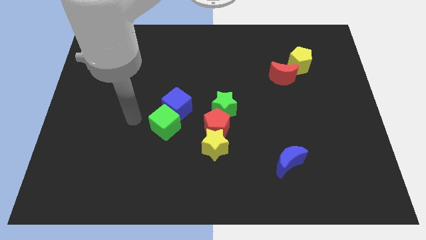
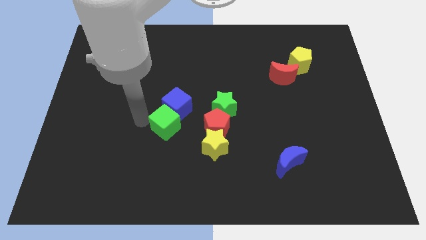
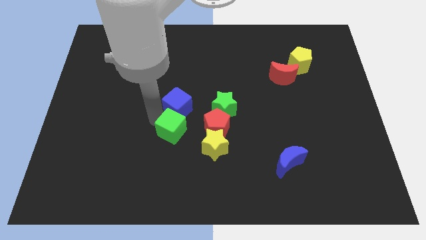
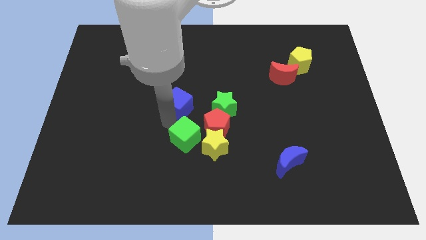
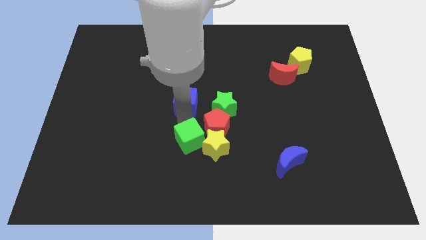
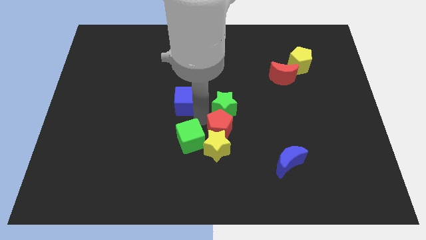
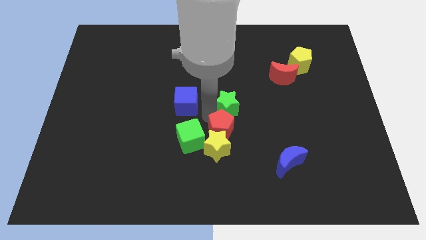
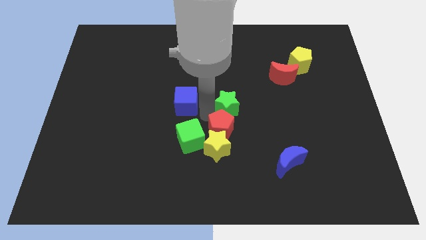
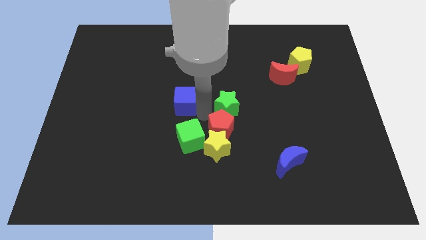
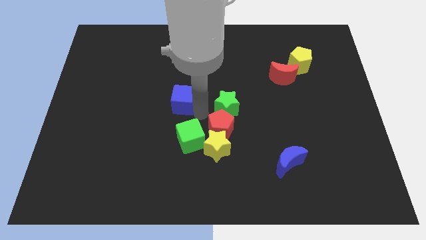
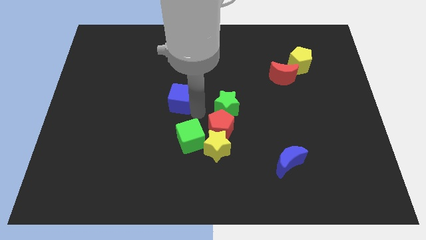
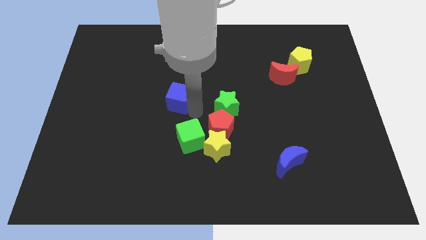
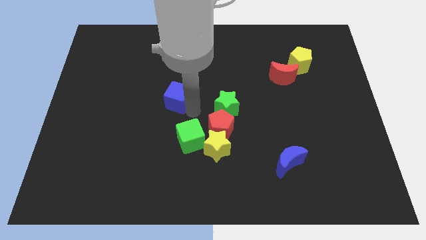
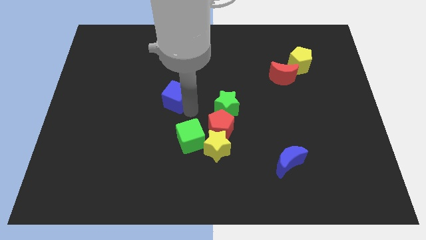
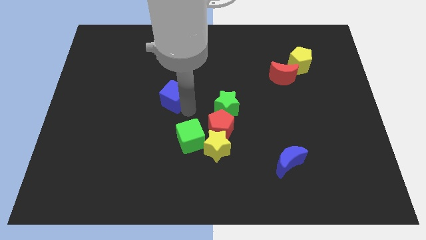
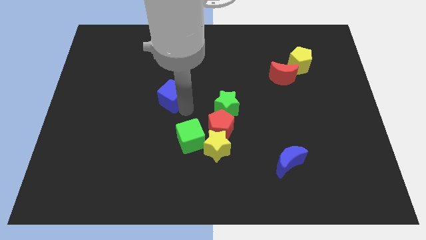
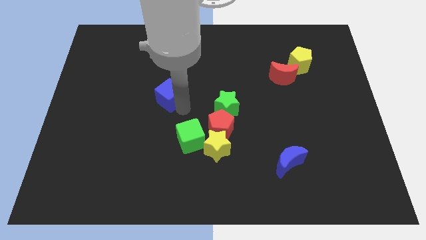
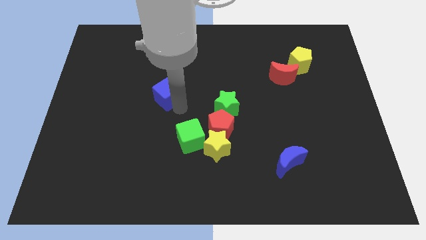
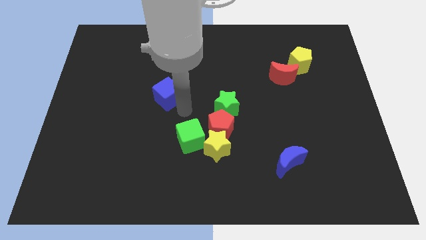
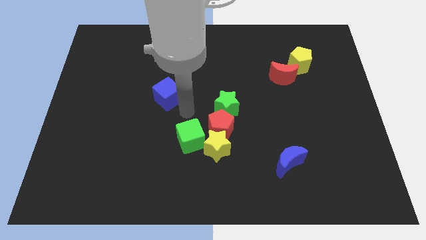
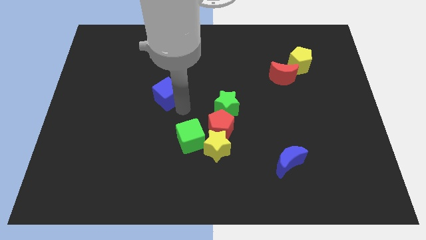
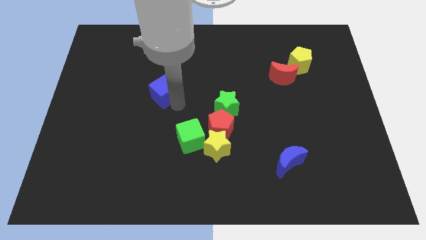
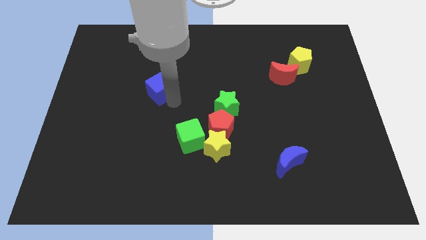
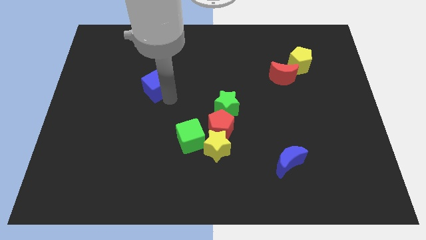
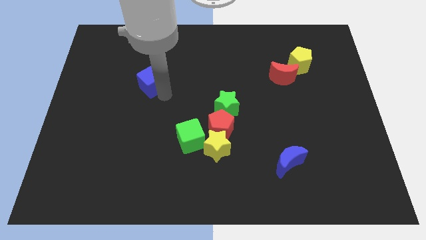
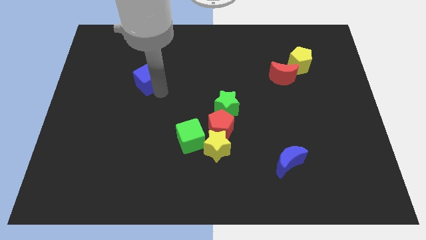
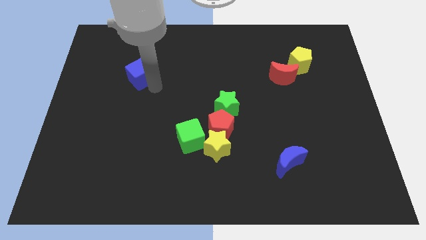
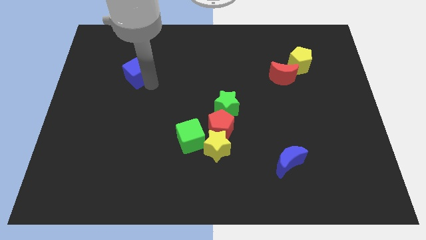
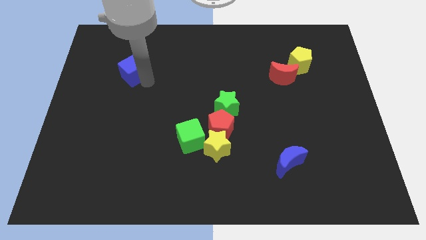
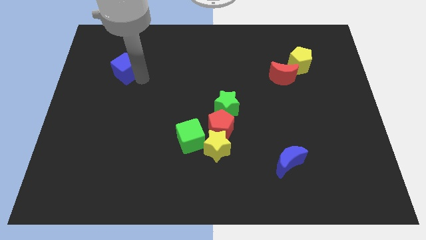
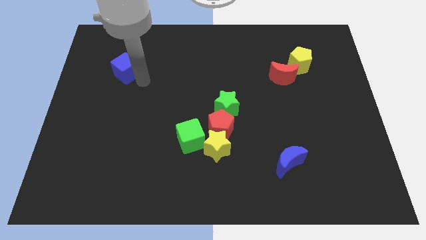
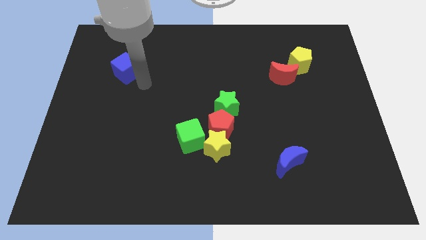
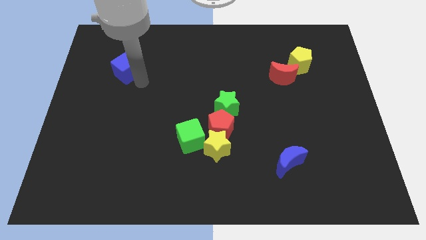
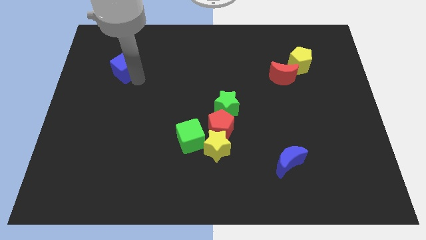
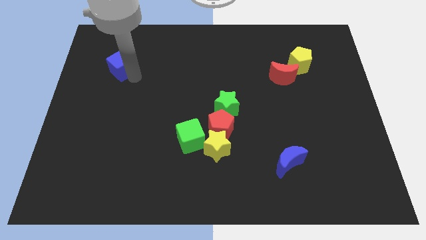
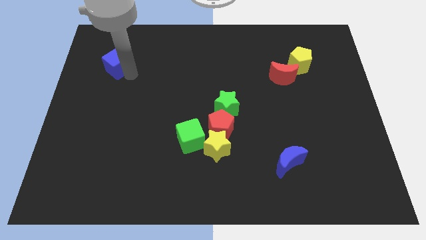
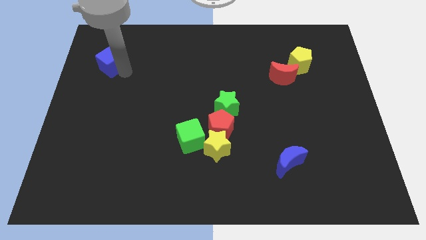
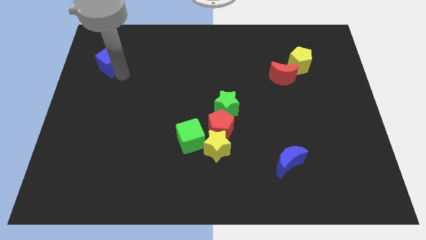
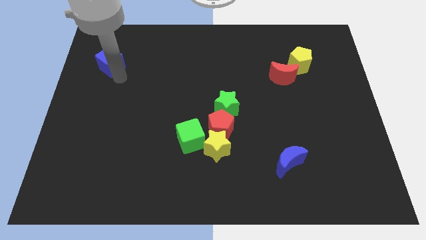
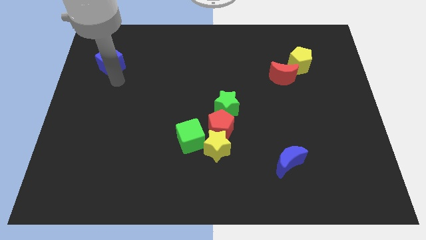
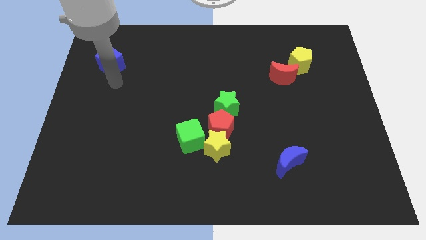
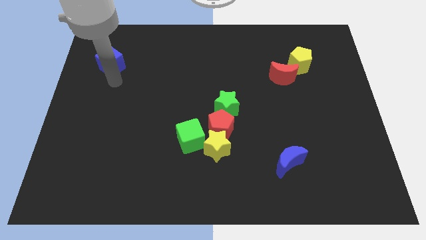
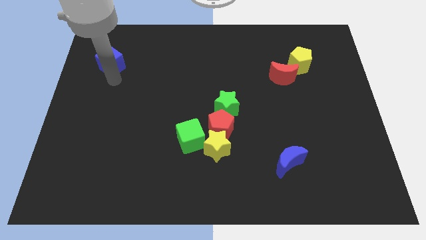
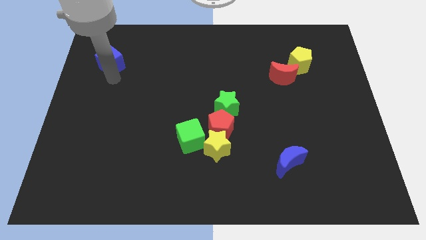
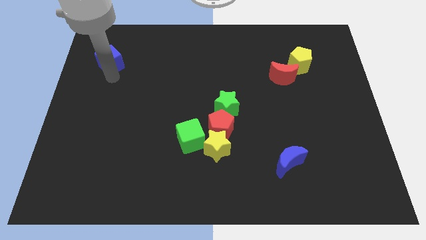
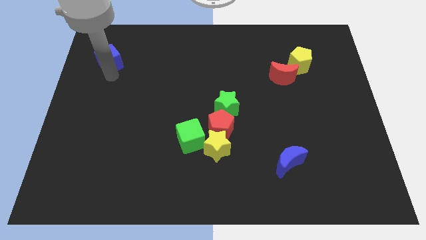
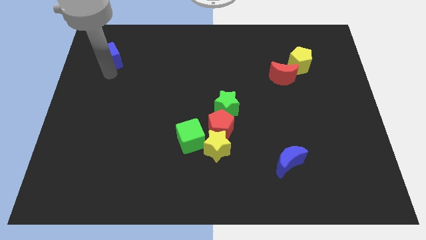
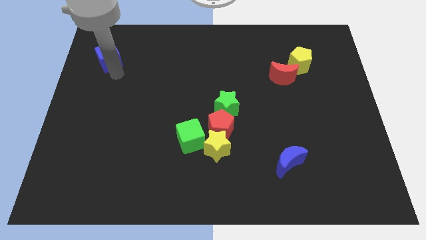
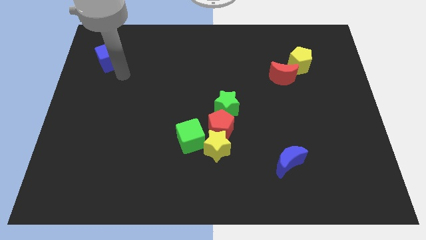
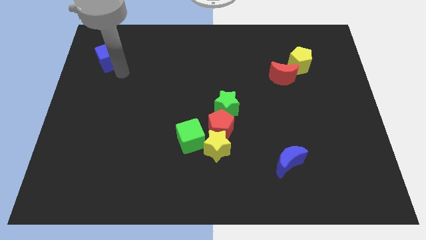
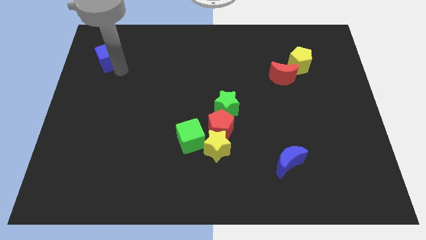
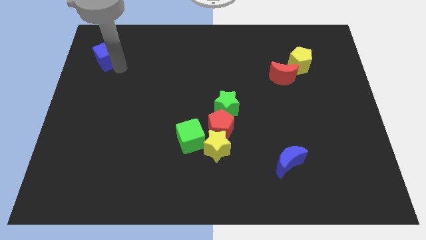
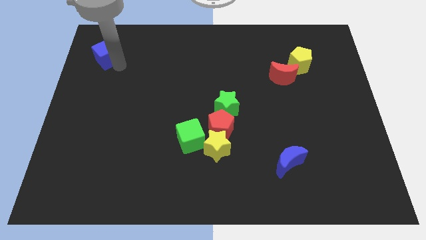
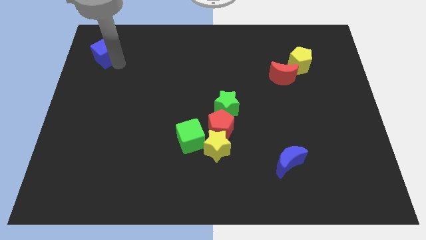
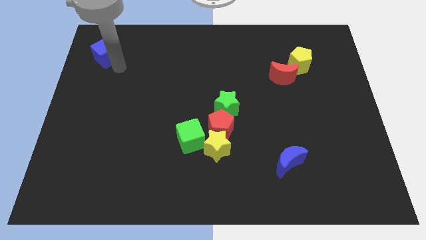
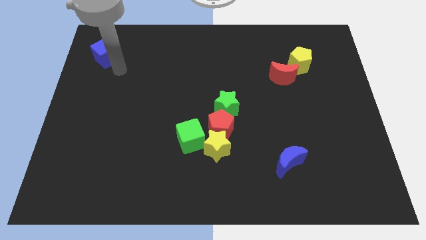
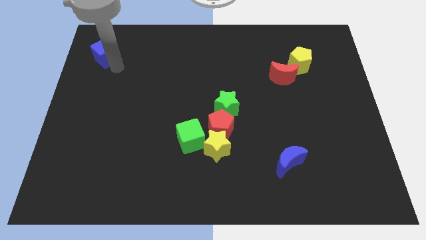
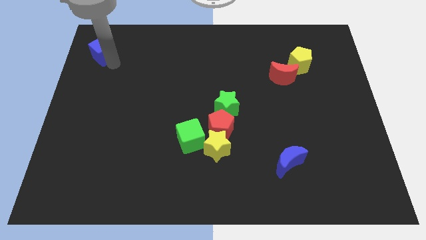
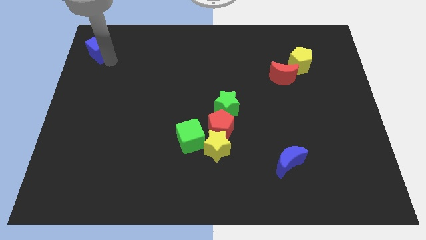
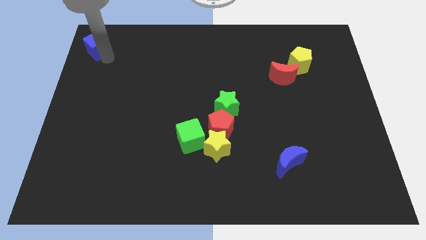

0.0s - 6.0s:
push the blue cube to the top left corner

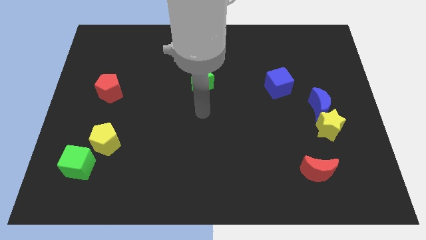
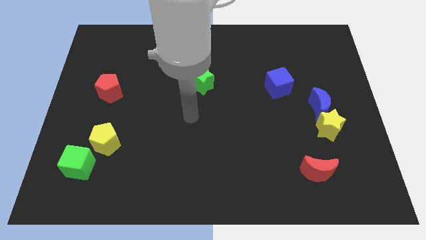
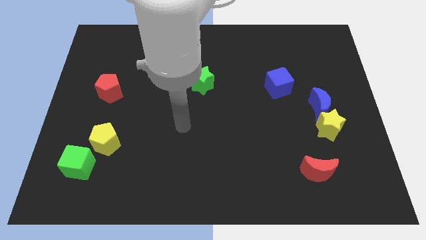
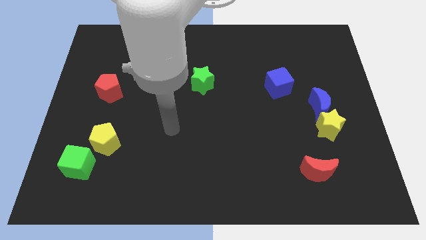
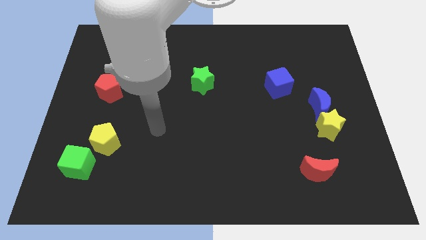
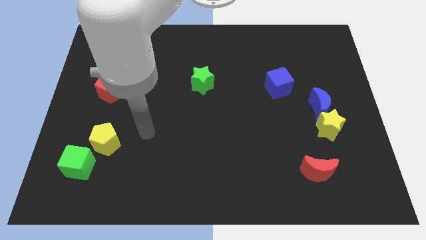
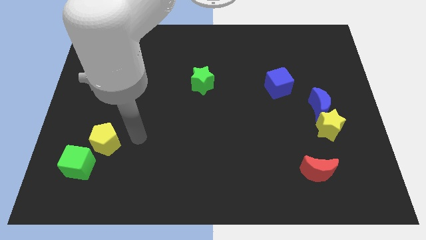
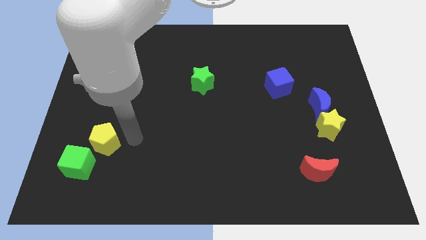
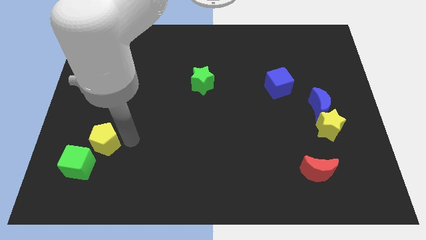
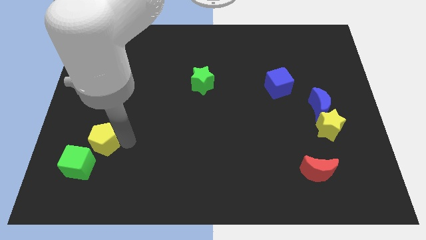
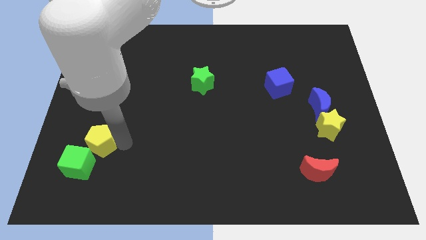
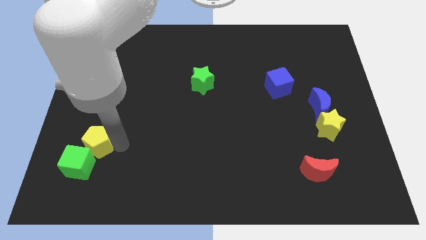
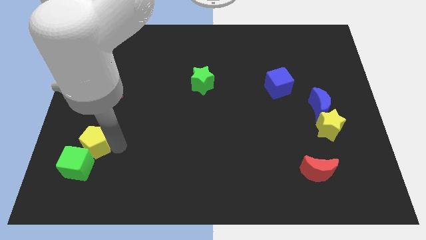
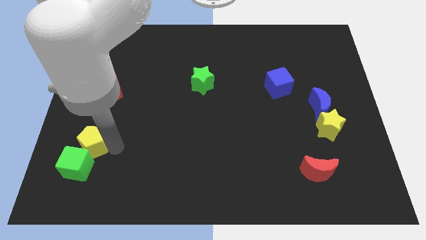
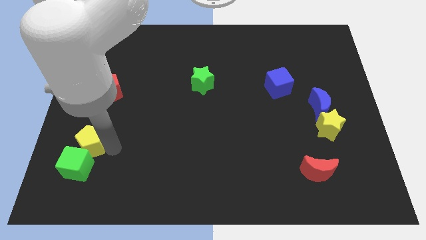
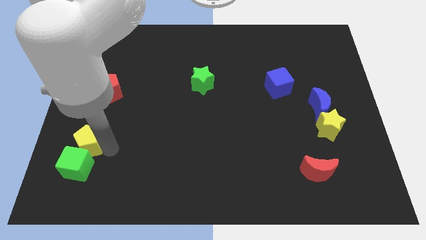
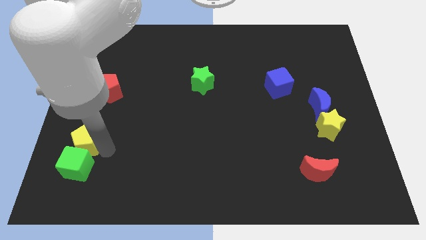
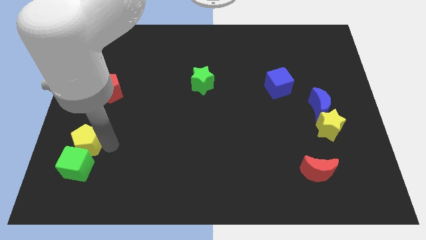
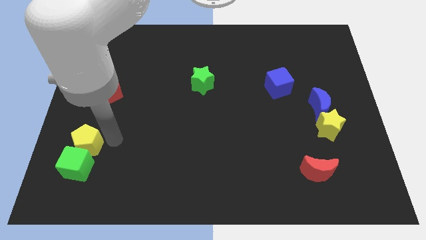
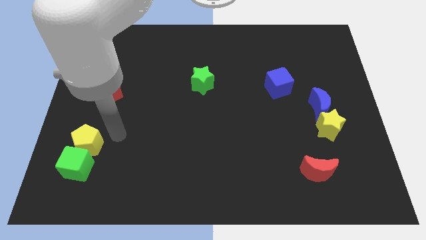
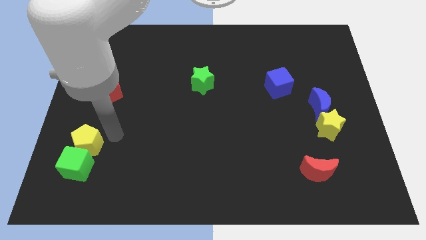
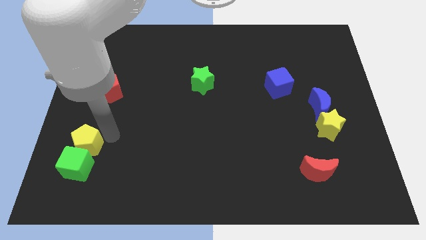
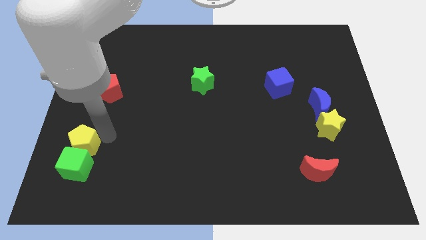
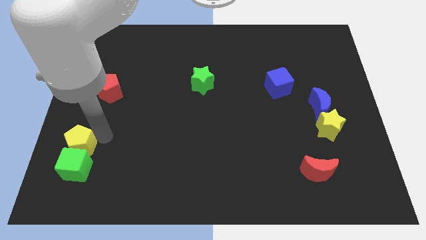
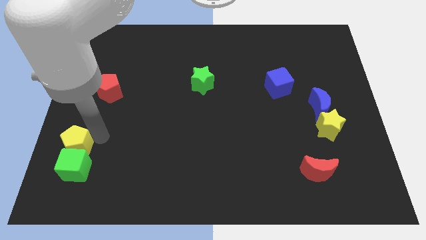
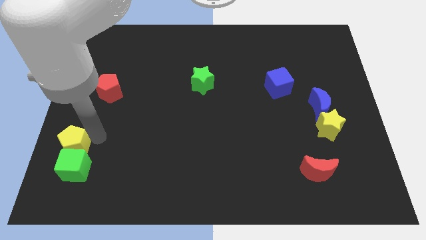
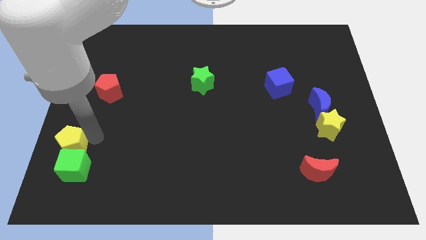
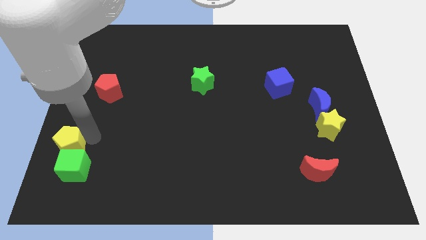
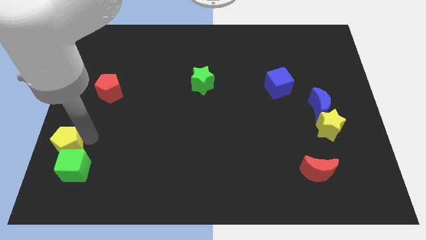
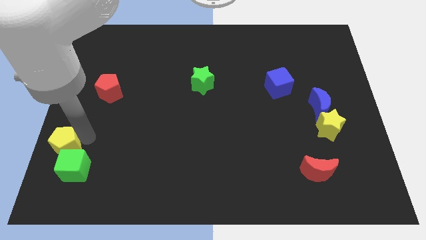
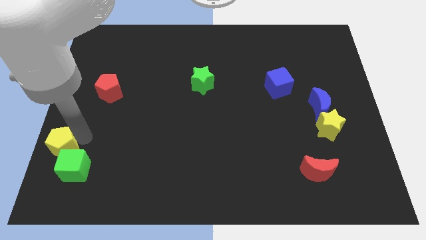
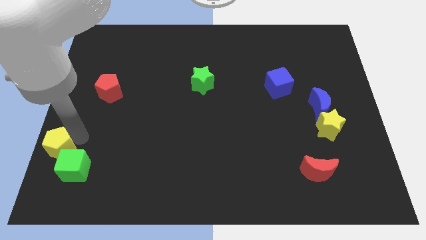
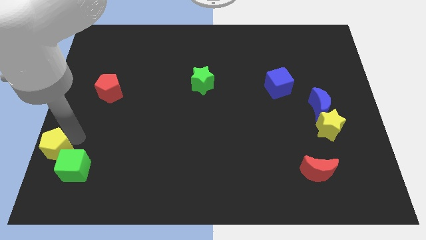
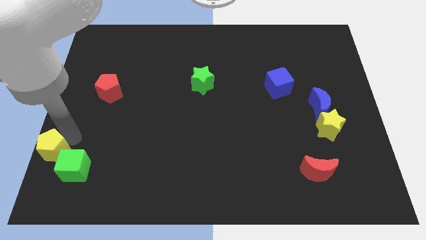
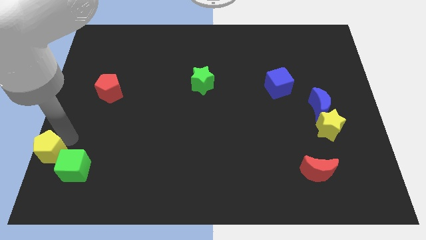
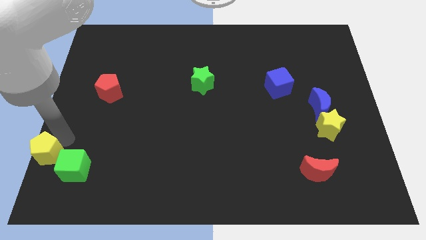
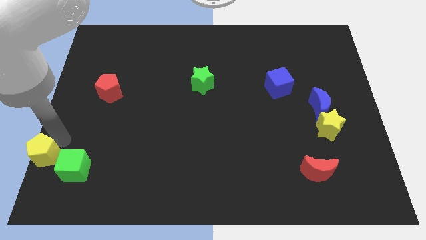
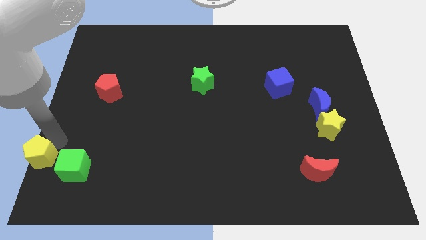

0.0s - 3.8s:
put the yellow pentagon to the bottom left of the board
